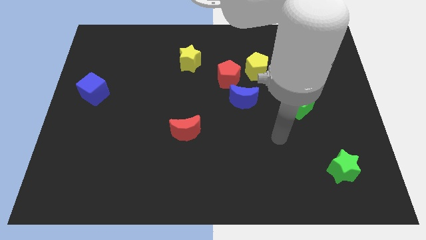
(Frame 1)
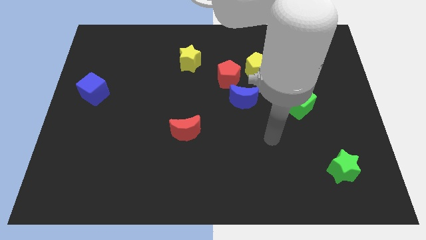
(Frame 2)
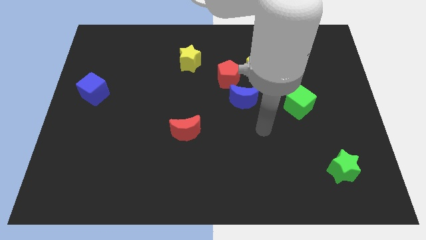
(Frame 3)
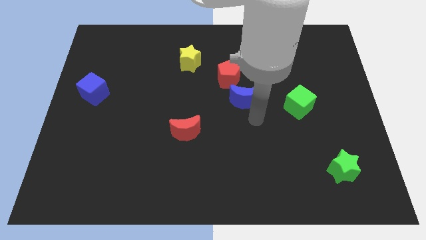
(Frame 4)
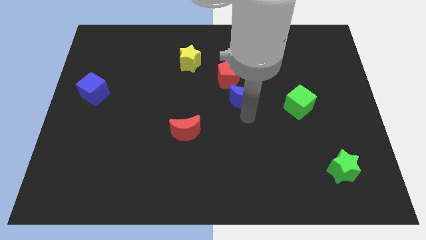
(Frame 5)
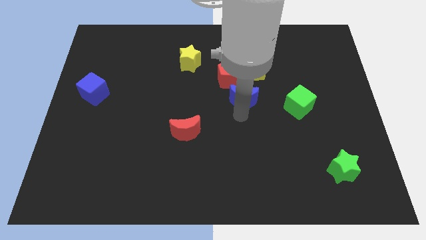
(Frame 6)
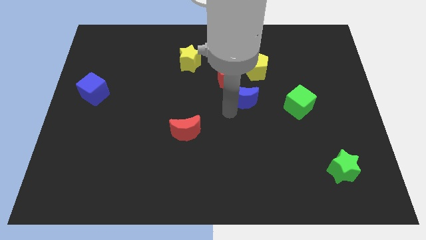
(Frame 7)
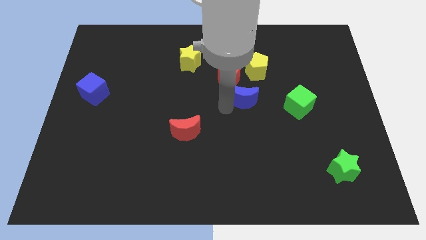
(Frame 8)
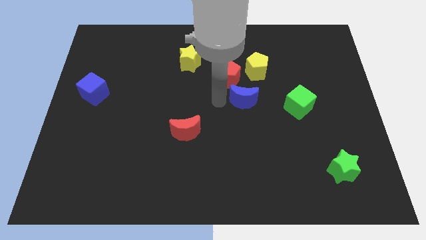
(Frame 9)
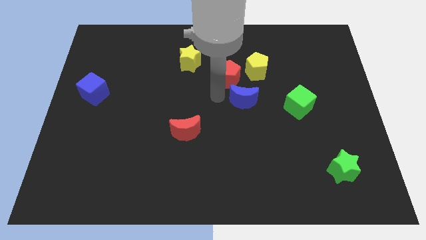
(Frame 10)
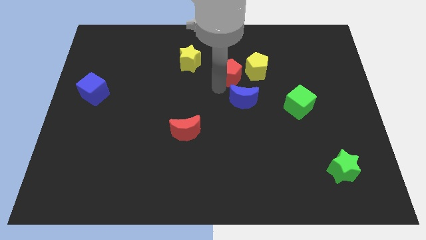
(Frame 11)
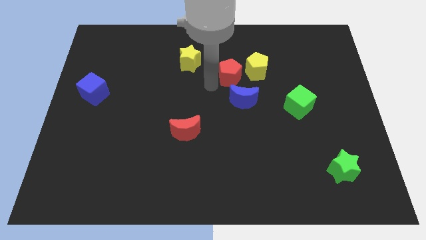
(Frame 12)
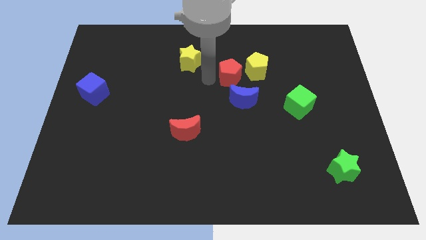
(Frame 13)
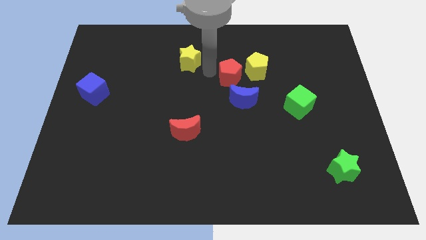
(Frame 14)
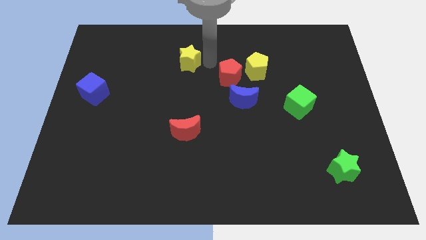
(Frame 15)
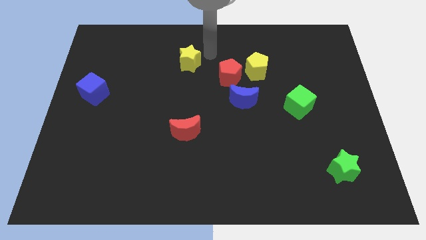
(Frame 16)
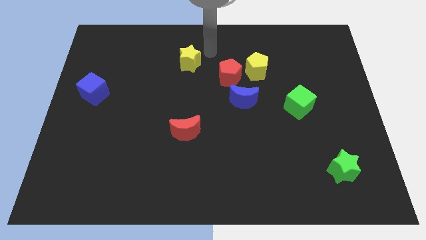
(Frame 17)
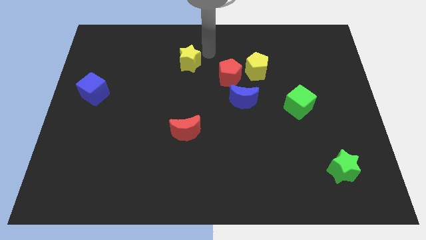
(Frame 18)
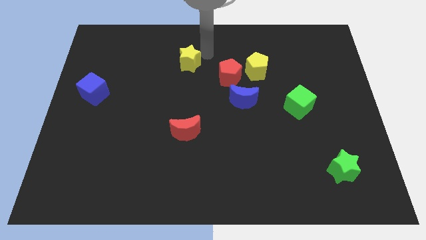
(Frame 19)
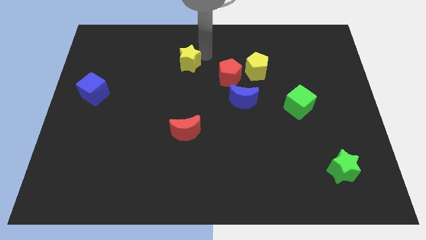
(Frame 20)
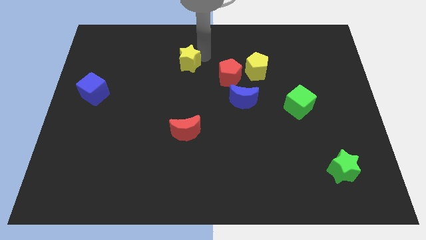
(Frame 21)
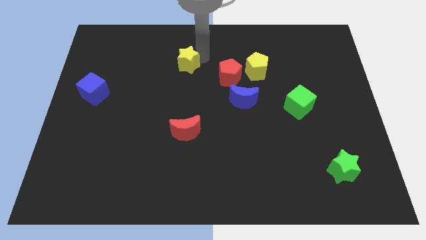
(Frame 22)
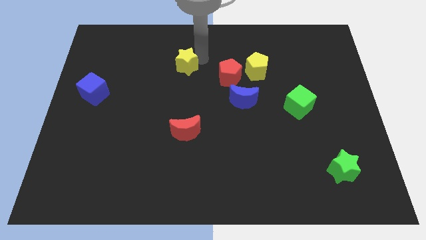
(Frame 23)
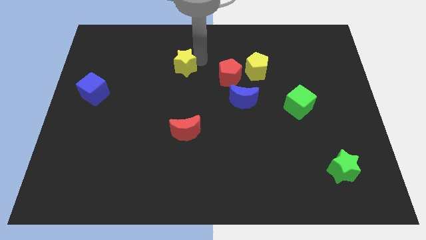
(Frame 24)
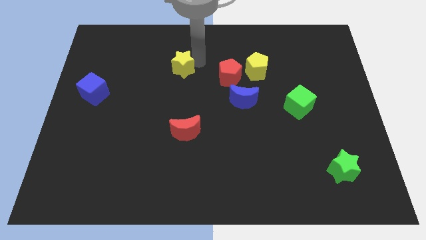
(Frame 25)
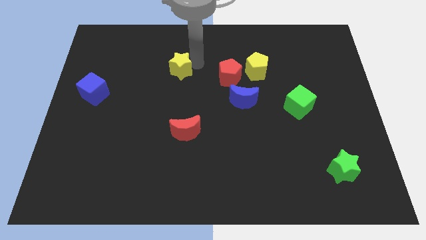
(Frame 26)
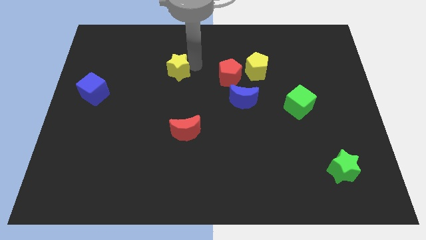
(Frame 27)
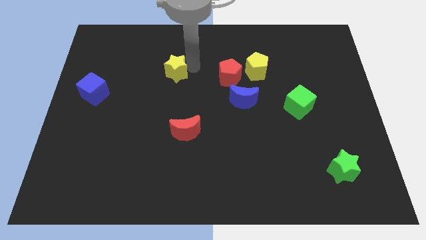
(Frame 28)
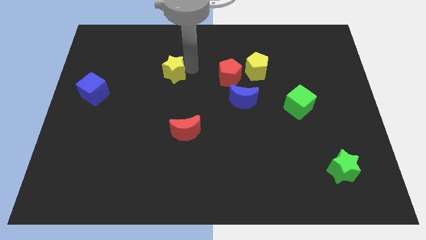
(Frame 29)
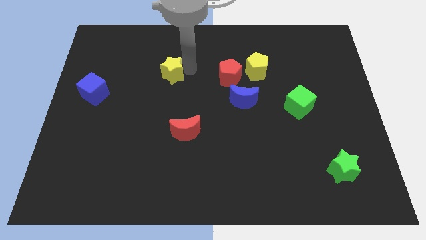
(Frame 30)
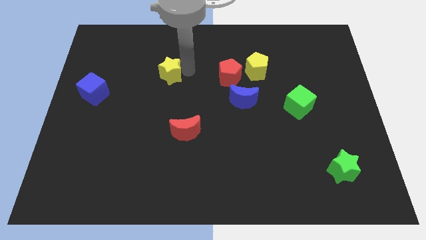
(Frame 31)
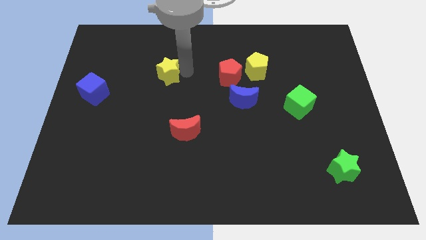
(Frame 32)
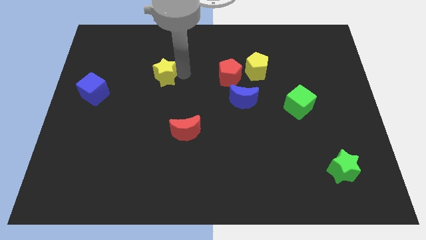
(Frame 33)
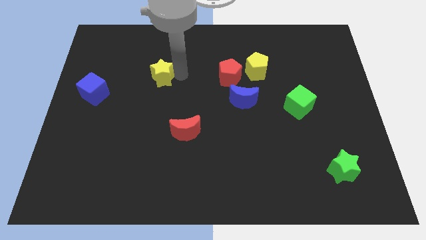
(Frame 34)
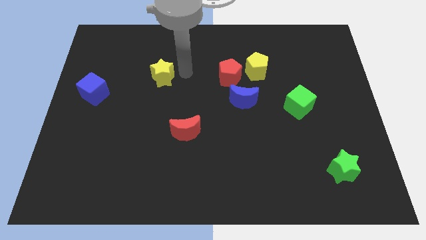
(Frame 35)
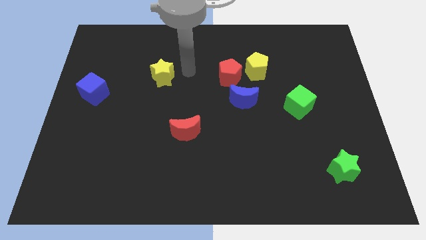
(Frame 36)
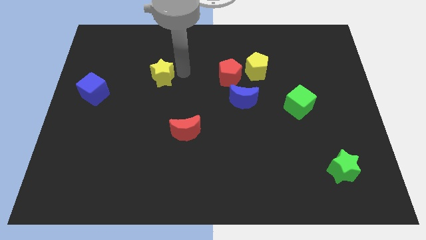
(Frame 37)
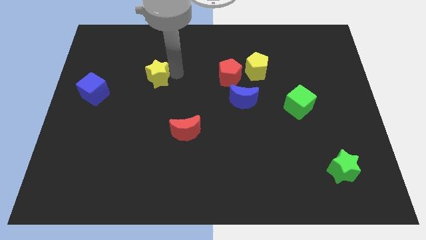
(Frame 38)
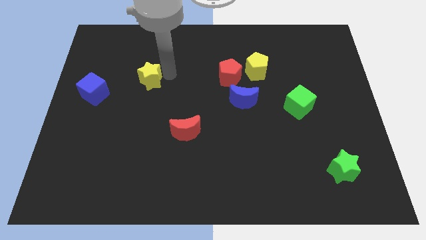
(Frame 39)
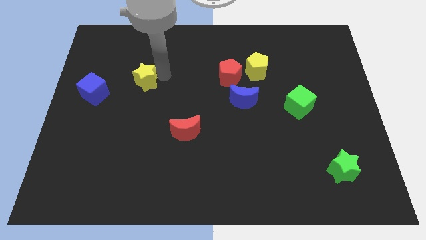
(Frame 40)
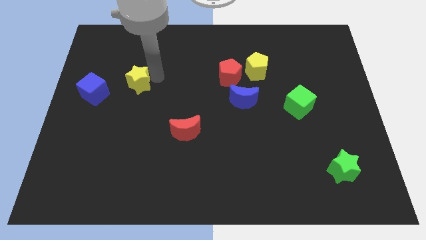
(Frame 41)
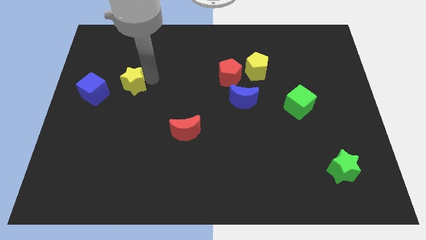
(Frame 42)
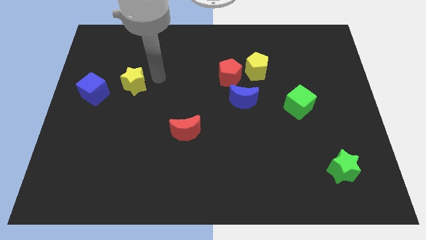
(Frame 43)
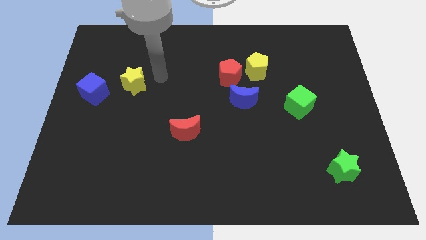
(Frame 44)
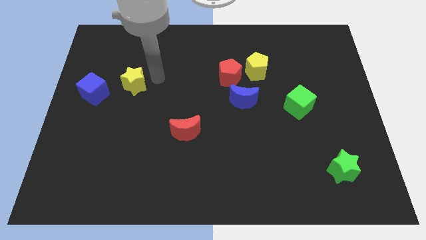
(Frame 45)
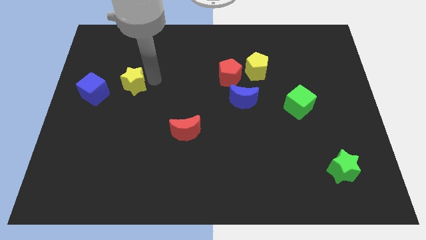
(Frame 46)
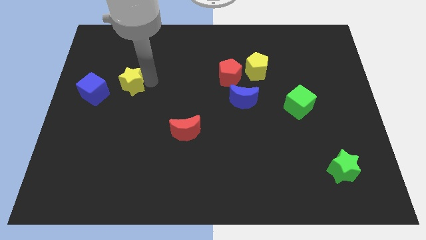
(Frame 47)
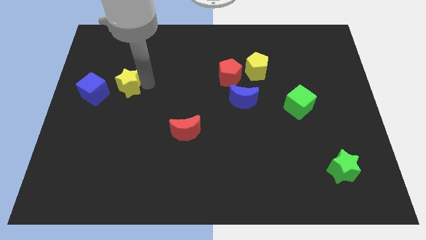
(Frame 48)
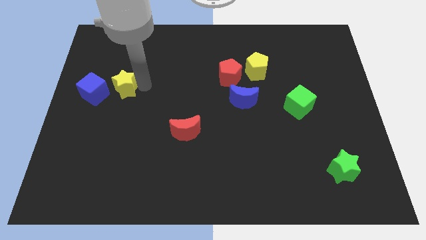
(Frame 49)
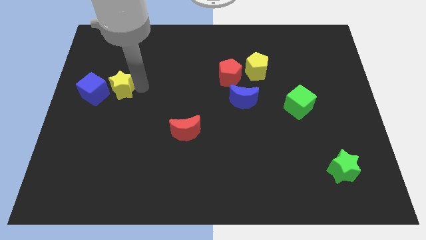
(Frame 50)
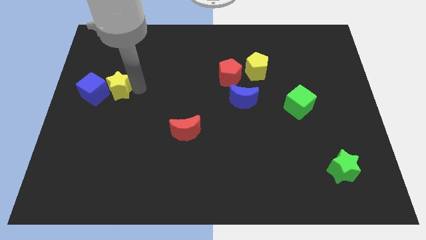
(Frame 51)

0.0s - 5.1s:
slide the yellow star to the blue cube

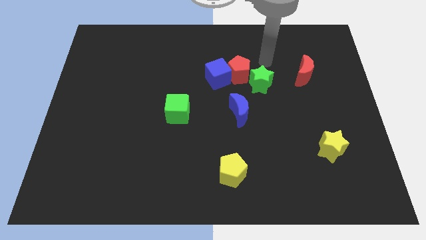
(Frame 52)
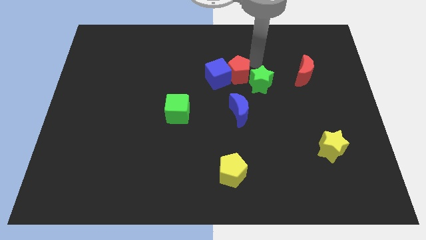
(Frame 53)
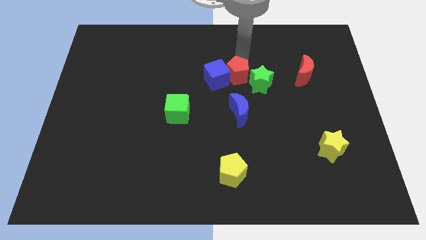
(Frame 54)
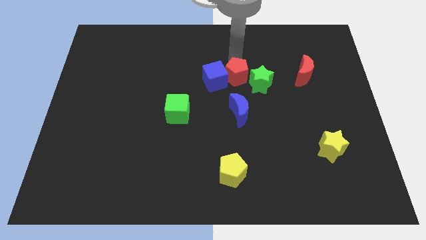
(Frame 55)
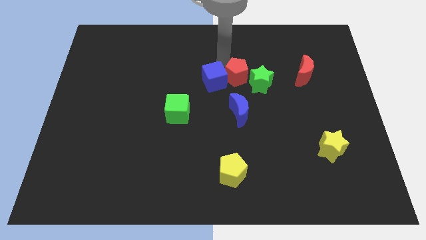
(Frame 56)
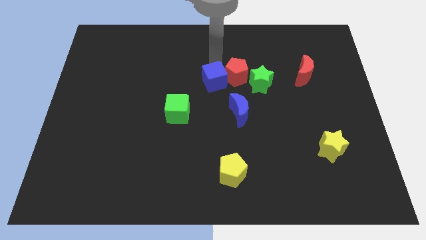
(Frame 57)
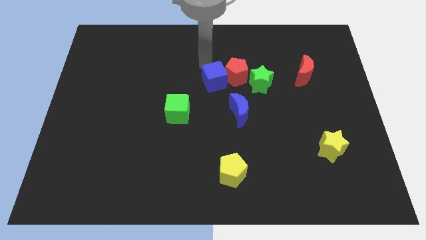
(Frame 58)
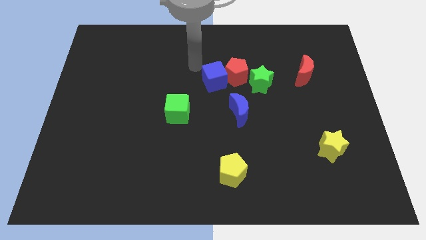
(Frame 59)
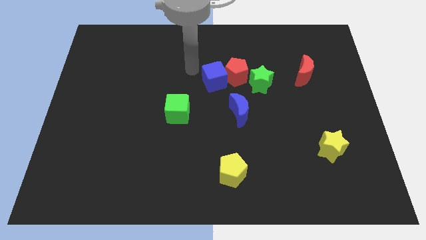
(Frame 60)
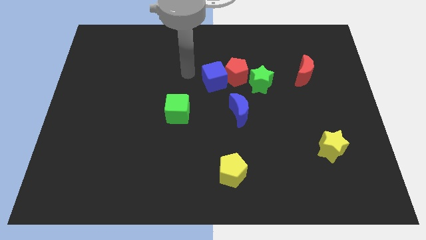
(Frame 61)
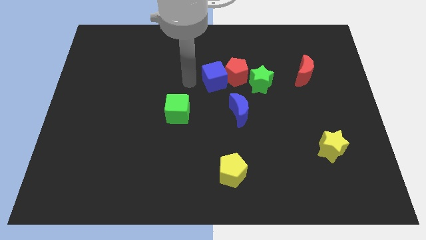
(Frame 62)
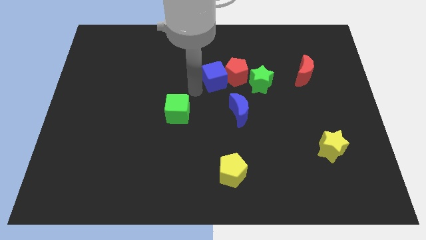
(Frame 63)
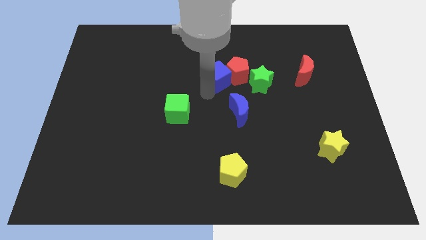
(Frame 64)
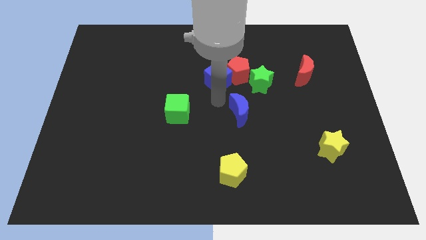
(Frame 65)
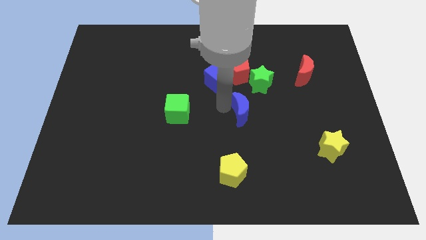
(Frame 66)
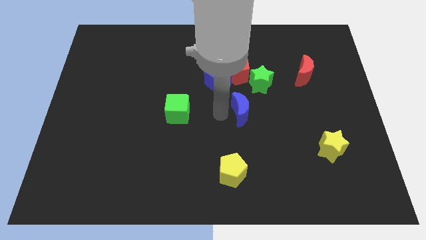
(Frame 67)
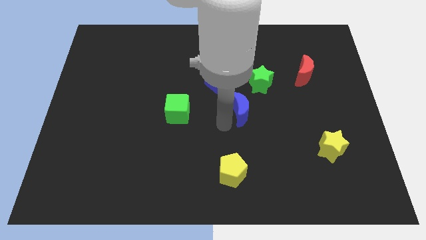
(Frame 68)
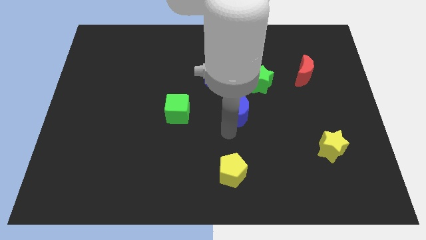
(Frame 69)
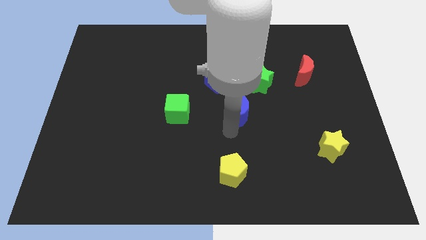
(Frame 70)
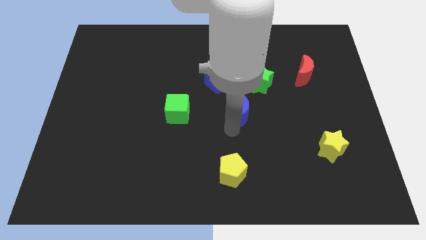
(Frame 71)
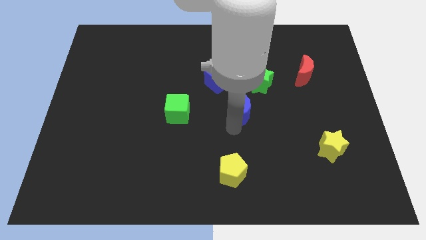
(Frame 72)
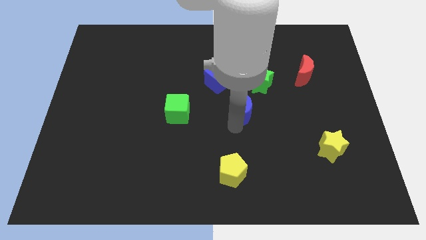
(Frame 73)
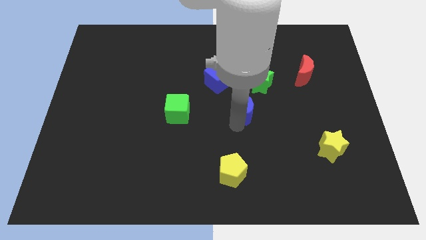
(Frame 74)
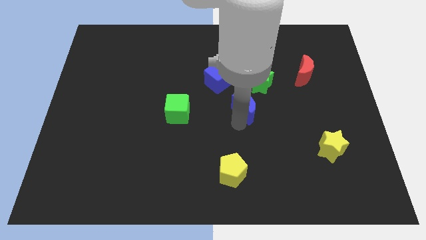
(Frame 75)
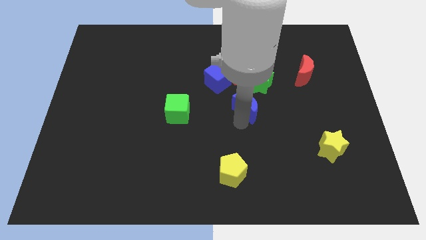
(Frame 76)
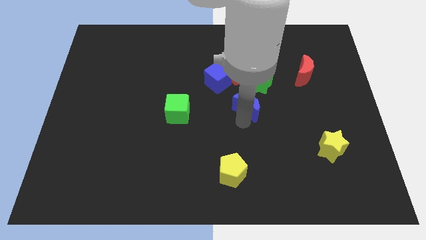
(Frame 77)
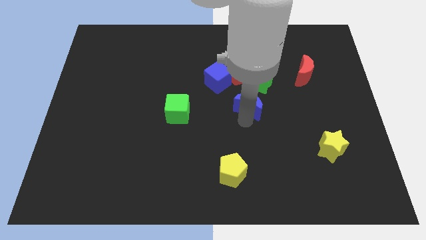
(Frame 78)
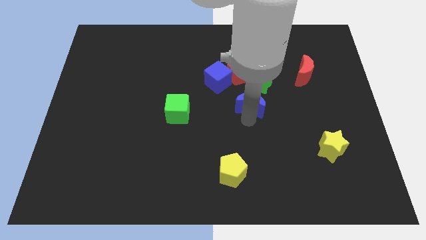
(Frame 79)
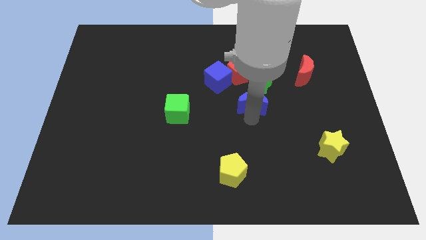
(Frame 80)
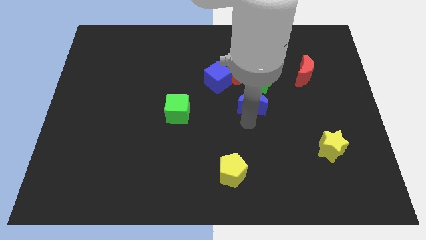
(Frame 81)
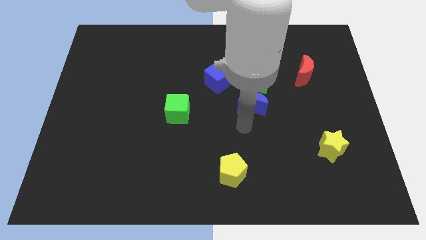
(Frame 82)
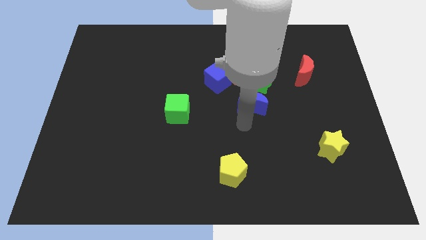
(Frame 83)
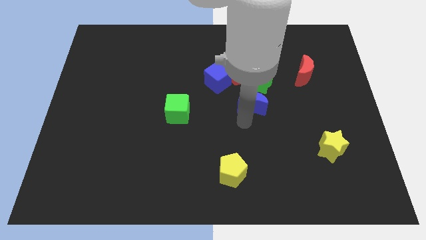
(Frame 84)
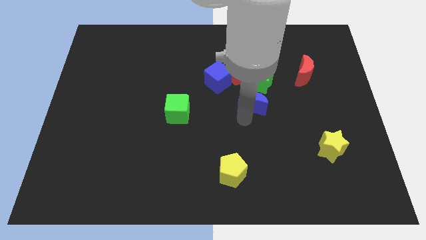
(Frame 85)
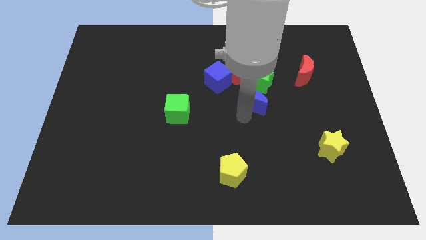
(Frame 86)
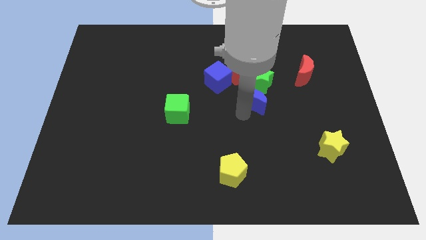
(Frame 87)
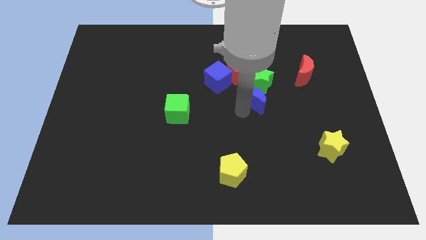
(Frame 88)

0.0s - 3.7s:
move the blue moon to the green star
